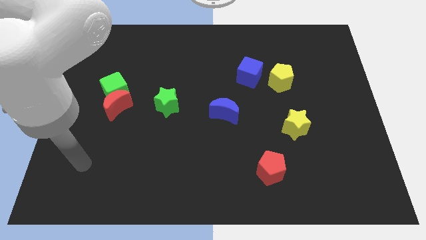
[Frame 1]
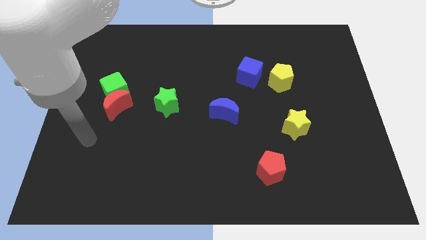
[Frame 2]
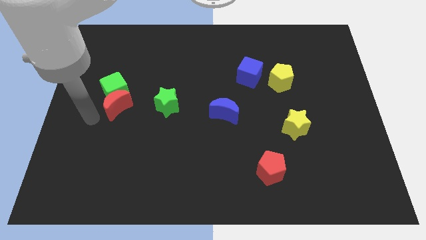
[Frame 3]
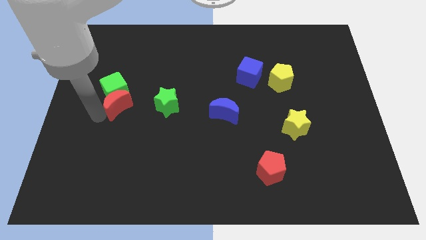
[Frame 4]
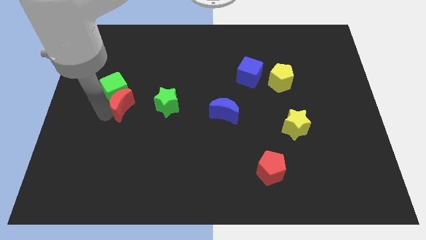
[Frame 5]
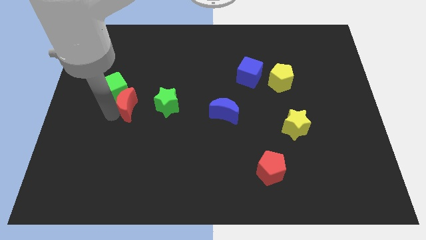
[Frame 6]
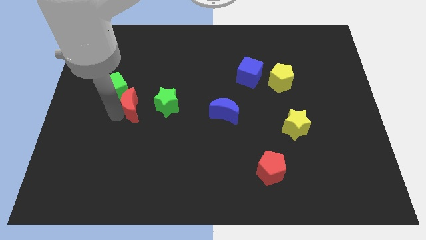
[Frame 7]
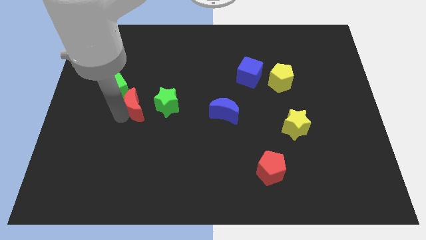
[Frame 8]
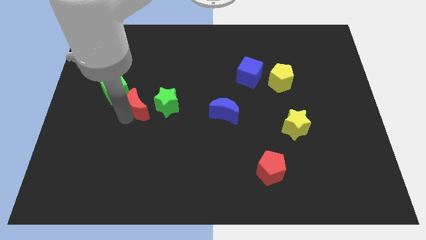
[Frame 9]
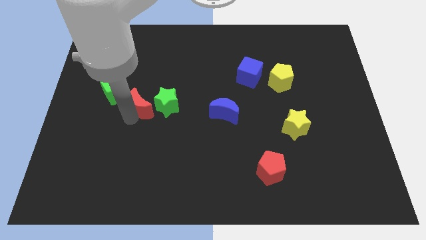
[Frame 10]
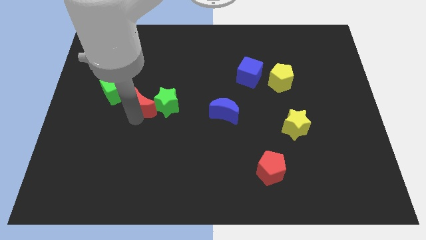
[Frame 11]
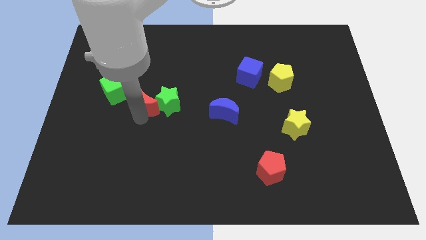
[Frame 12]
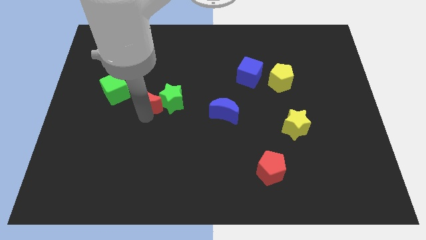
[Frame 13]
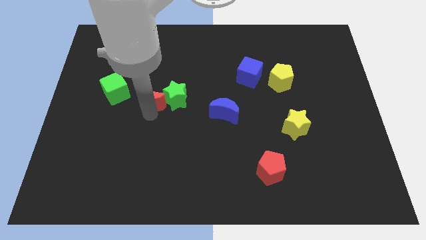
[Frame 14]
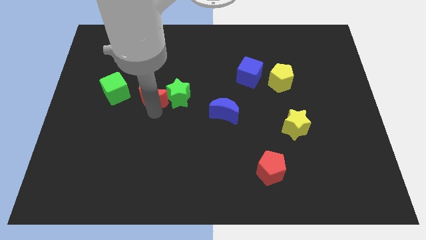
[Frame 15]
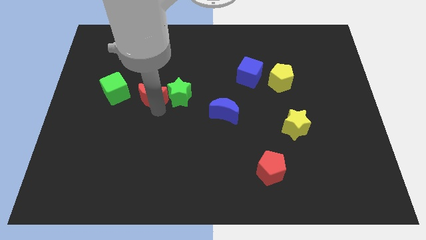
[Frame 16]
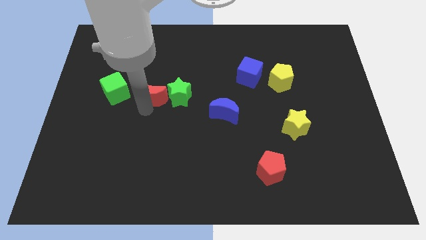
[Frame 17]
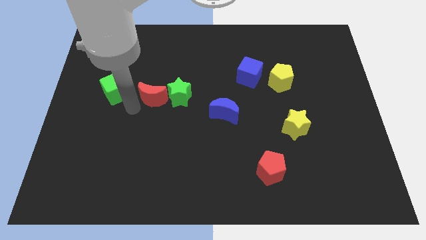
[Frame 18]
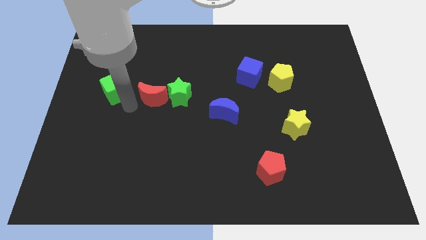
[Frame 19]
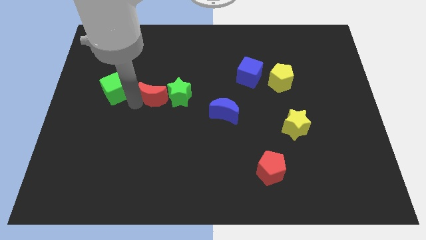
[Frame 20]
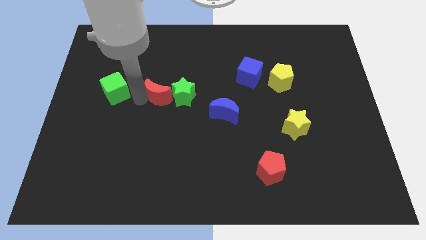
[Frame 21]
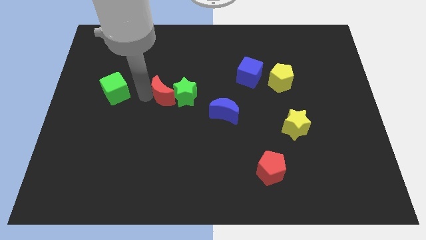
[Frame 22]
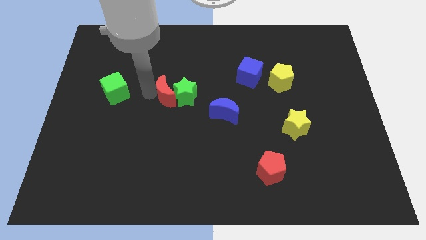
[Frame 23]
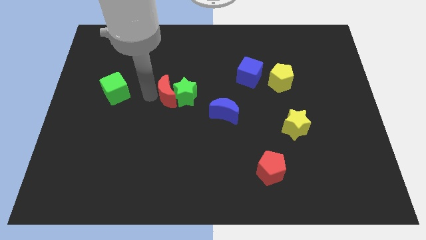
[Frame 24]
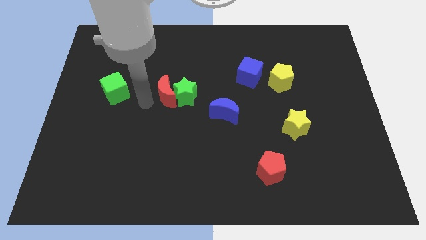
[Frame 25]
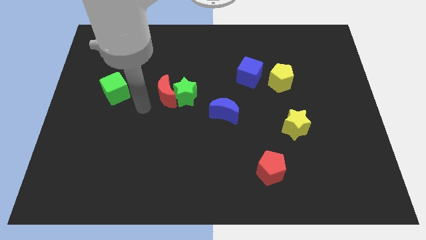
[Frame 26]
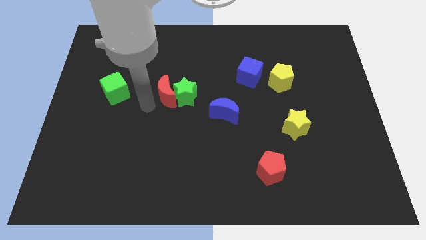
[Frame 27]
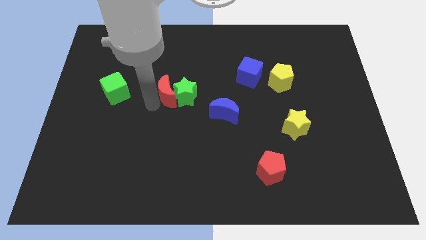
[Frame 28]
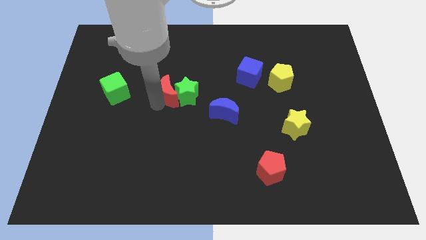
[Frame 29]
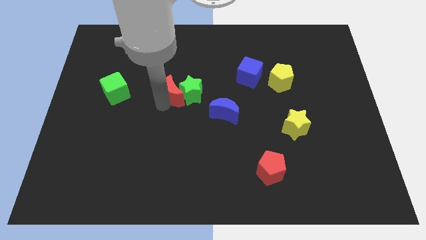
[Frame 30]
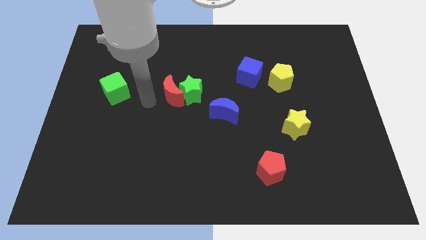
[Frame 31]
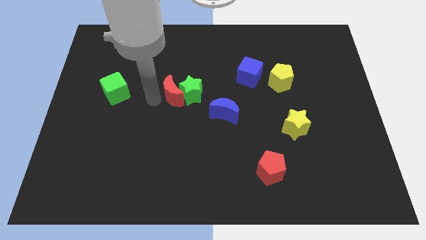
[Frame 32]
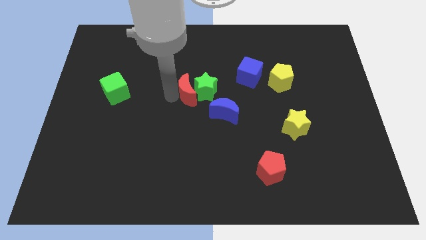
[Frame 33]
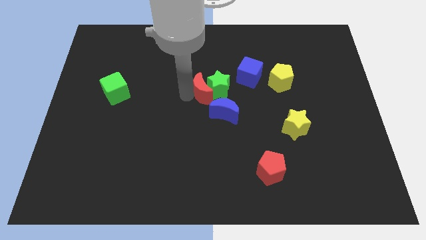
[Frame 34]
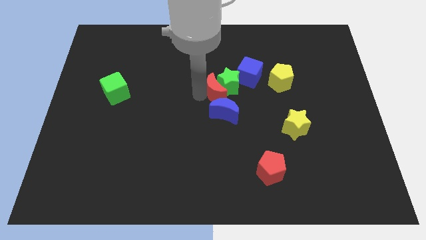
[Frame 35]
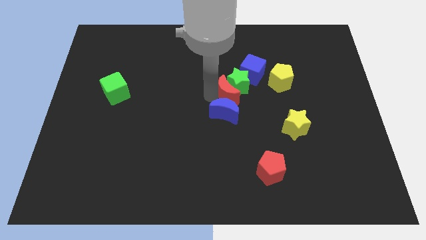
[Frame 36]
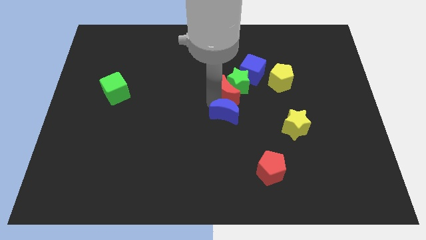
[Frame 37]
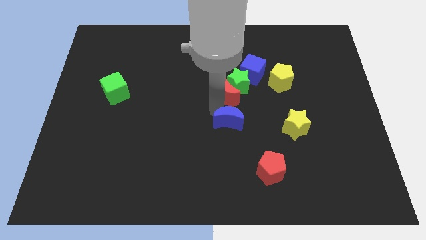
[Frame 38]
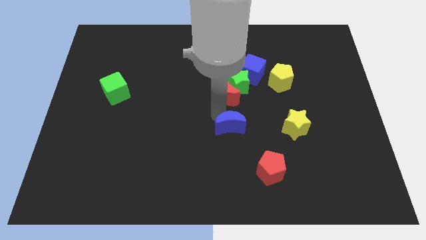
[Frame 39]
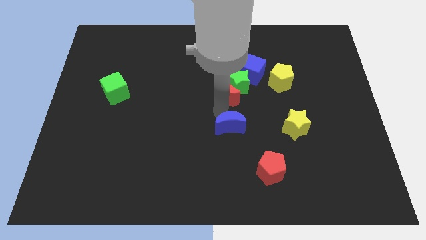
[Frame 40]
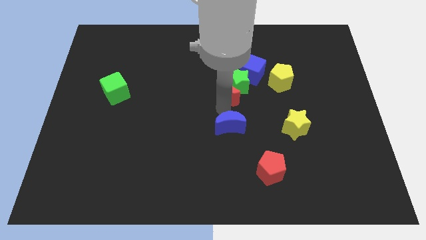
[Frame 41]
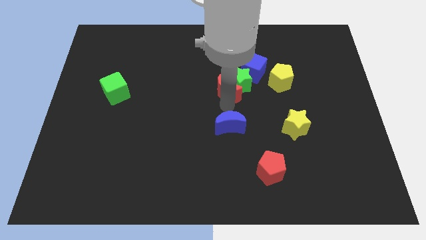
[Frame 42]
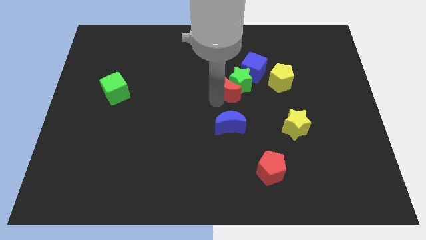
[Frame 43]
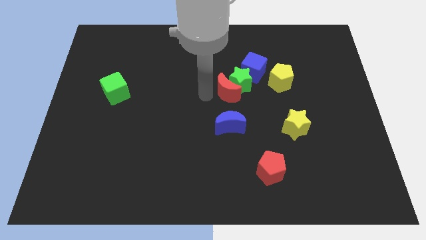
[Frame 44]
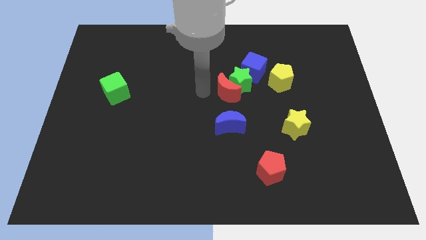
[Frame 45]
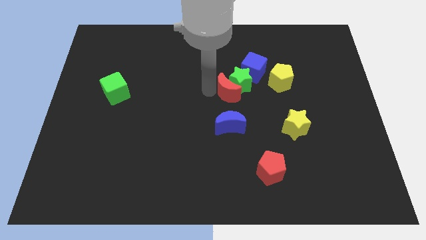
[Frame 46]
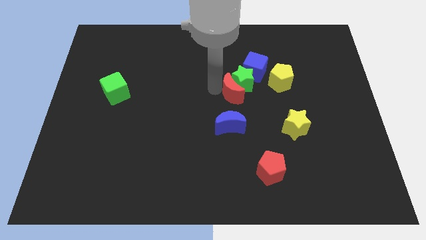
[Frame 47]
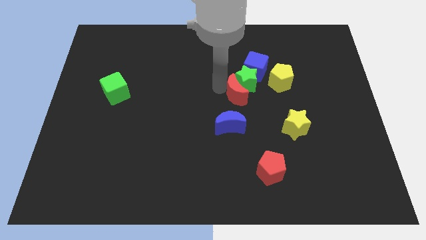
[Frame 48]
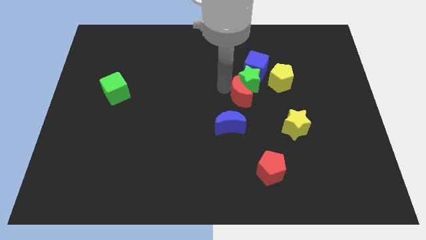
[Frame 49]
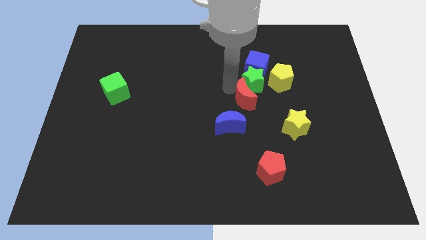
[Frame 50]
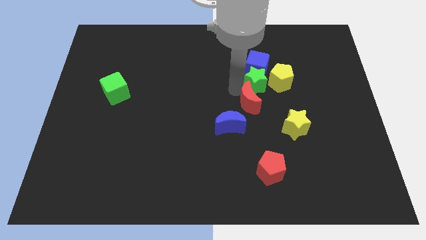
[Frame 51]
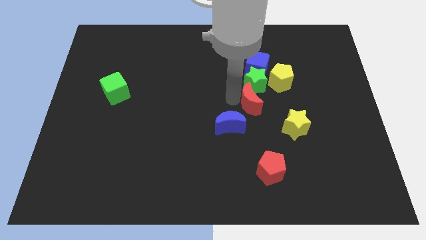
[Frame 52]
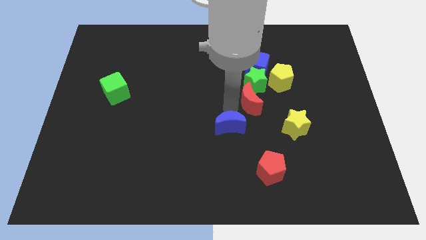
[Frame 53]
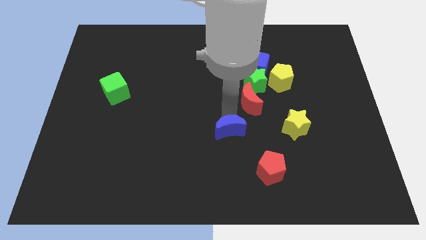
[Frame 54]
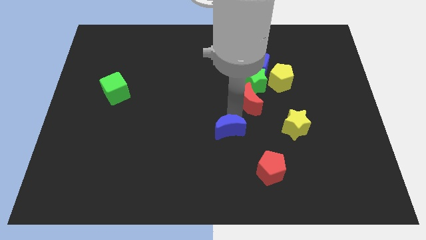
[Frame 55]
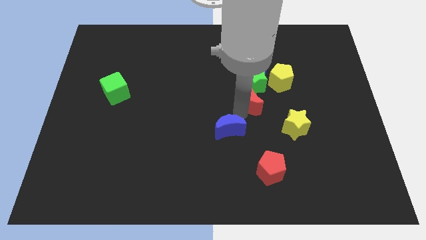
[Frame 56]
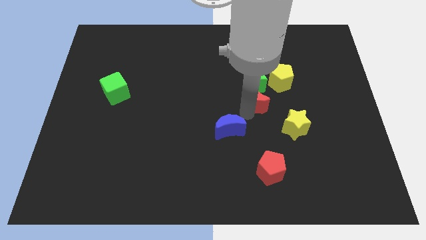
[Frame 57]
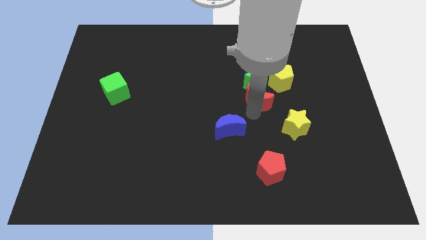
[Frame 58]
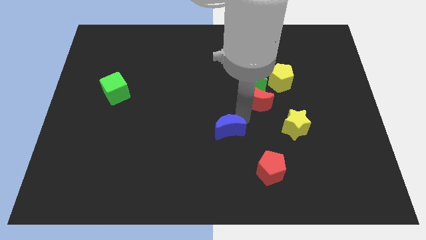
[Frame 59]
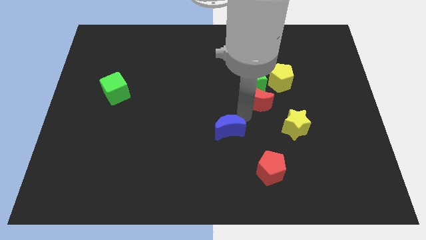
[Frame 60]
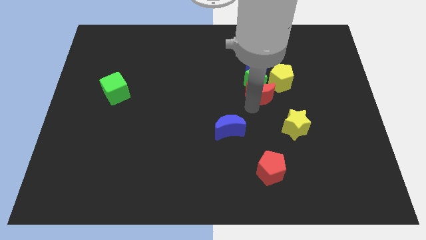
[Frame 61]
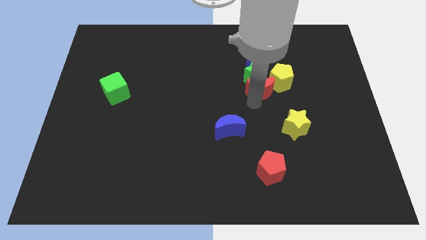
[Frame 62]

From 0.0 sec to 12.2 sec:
slide the red moon close to the yellow pentagon

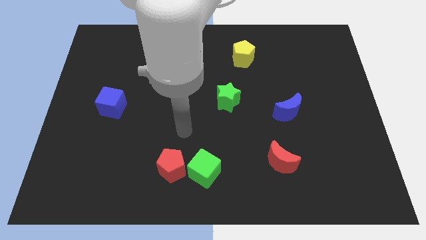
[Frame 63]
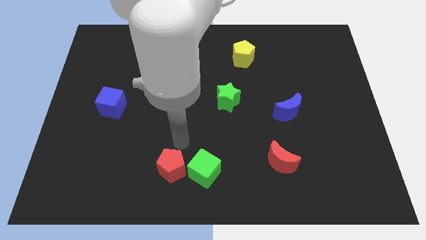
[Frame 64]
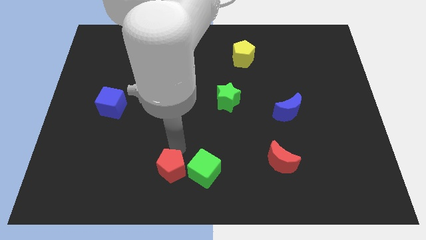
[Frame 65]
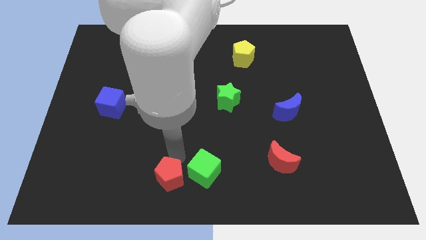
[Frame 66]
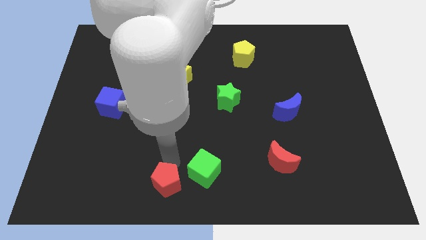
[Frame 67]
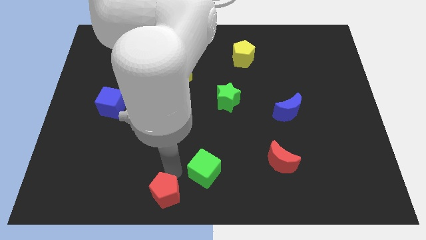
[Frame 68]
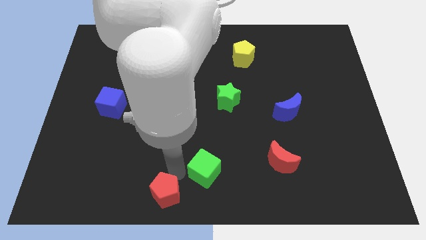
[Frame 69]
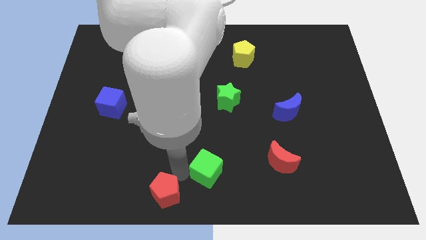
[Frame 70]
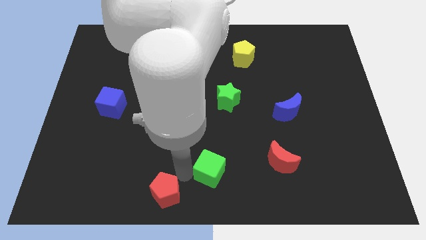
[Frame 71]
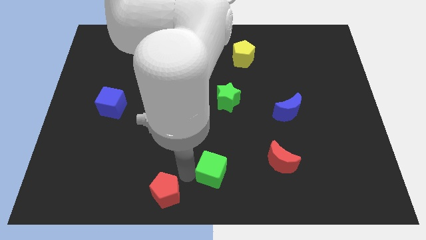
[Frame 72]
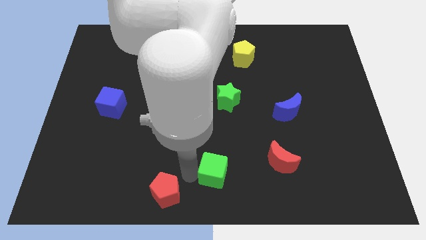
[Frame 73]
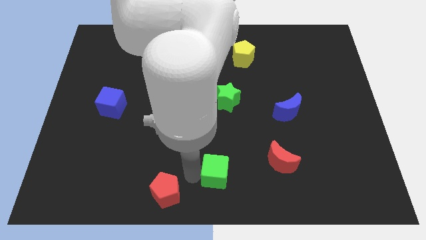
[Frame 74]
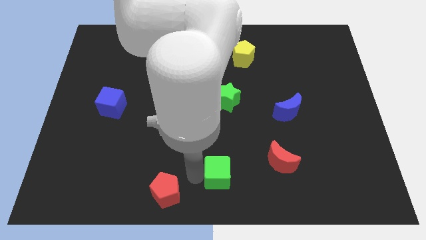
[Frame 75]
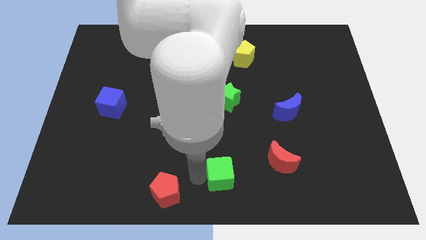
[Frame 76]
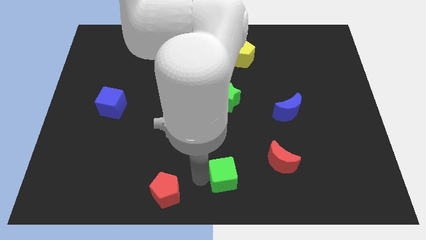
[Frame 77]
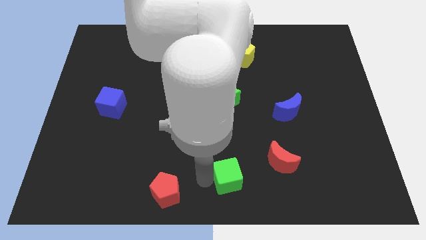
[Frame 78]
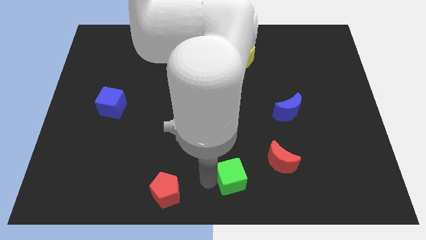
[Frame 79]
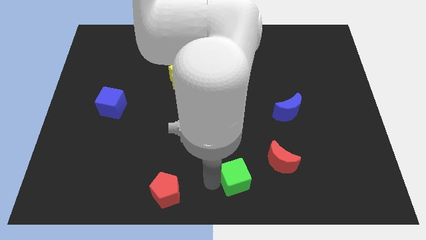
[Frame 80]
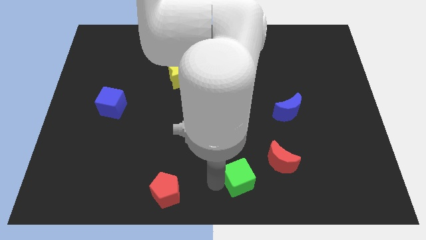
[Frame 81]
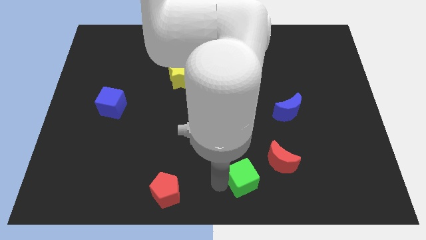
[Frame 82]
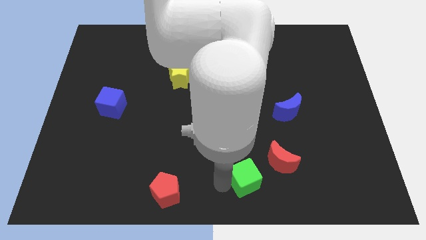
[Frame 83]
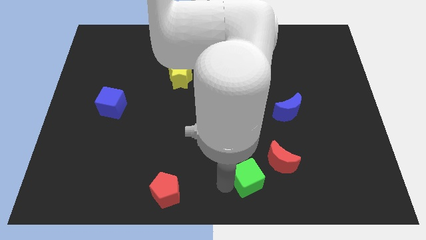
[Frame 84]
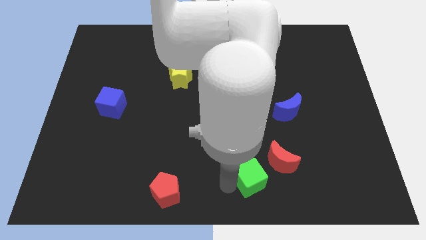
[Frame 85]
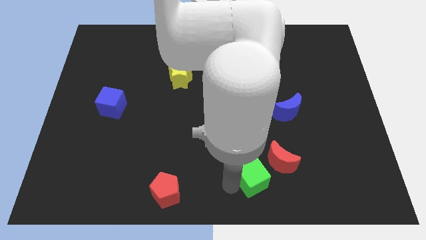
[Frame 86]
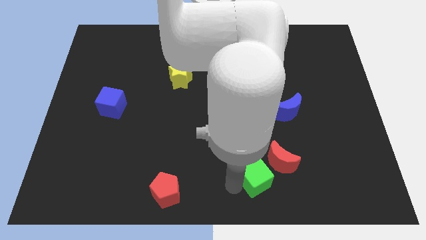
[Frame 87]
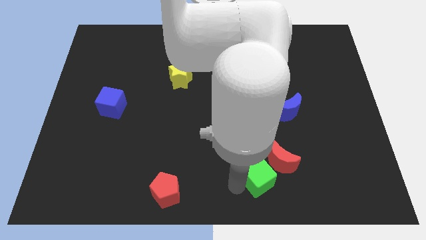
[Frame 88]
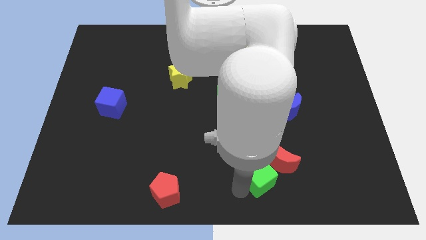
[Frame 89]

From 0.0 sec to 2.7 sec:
push the green cube to the red moon
